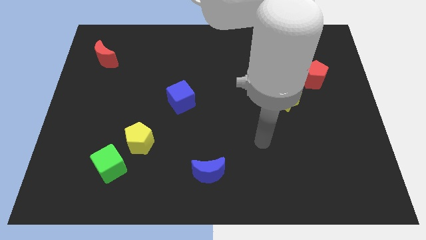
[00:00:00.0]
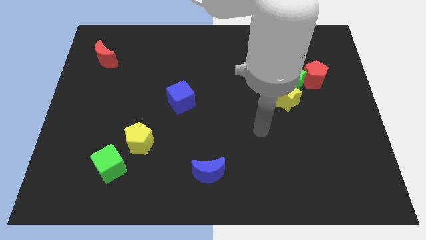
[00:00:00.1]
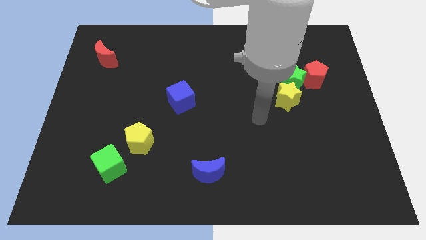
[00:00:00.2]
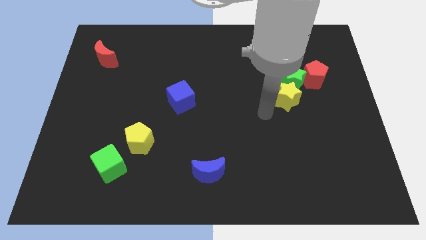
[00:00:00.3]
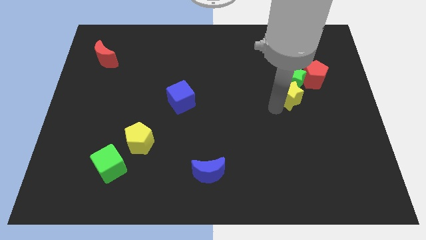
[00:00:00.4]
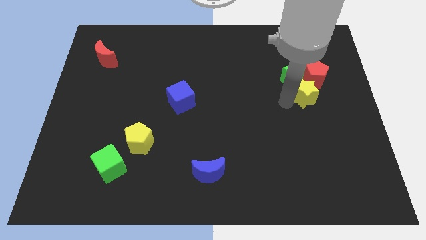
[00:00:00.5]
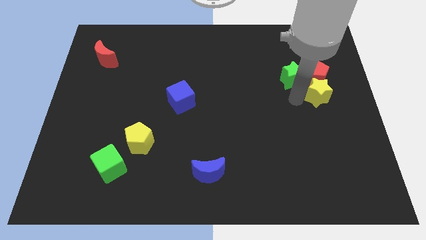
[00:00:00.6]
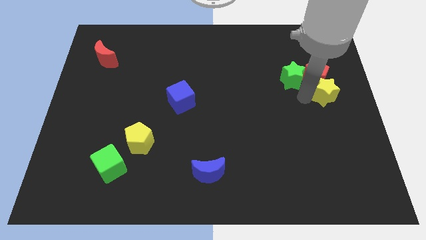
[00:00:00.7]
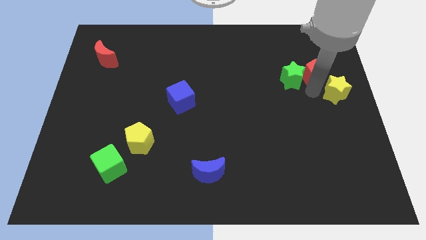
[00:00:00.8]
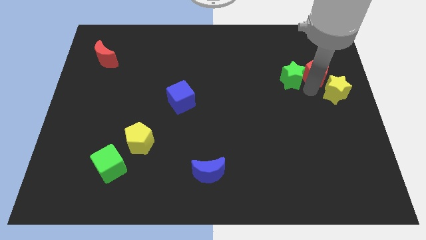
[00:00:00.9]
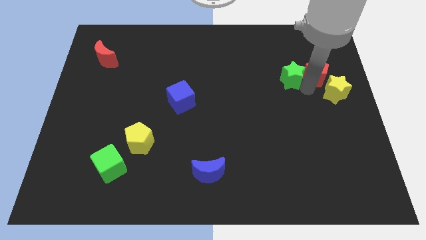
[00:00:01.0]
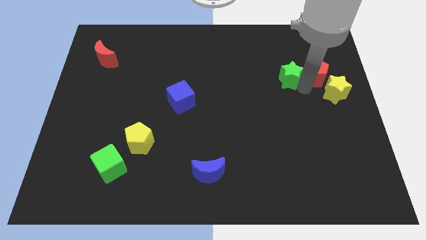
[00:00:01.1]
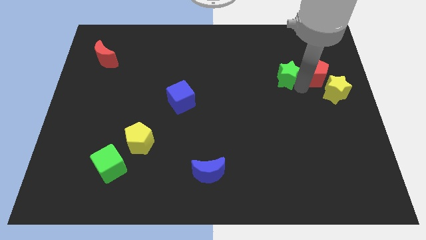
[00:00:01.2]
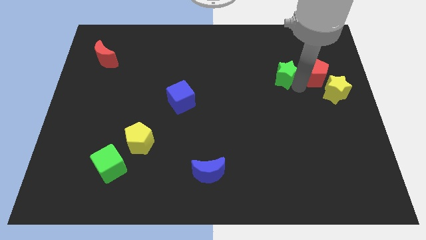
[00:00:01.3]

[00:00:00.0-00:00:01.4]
separate the green star from the yellow star and red pentagon

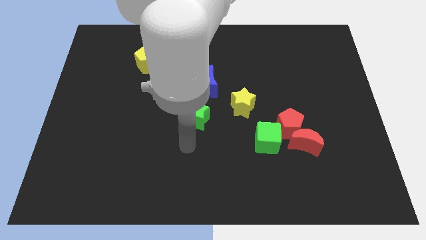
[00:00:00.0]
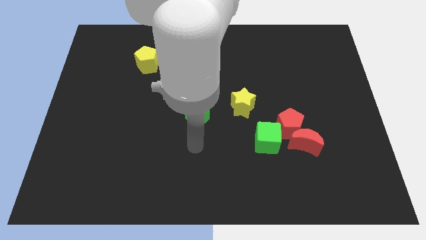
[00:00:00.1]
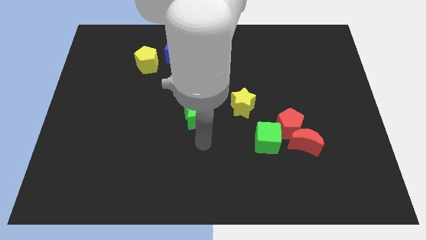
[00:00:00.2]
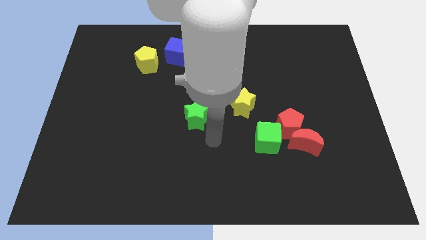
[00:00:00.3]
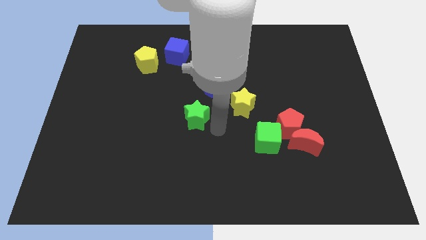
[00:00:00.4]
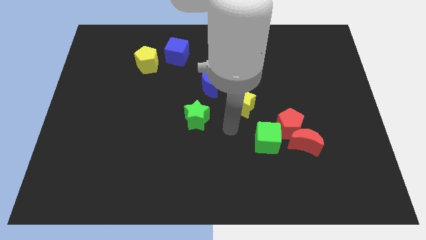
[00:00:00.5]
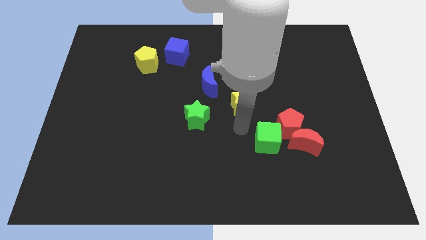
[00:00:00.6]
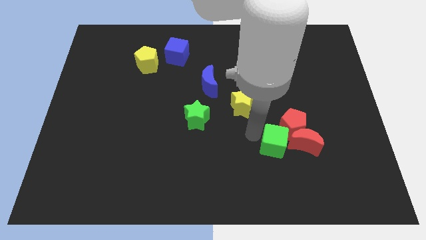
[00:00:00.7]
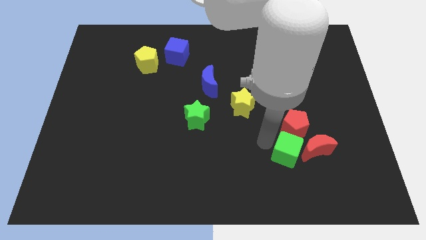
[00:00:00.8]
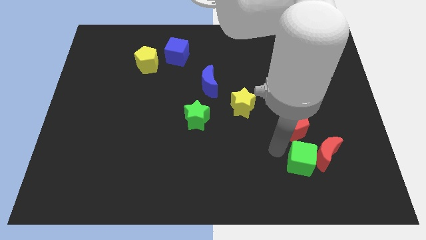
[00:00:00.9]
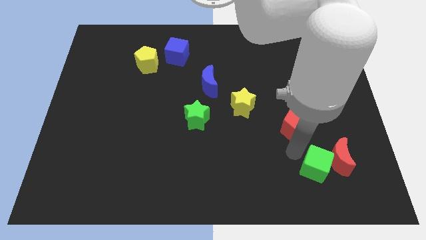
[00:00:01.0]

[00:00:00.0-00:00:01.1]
separate the red pentagon from the red moon and green cube

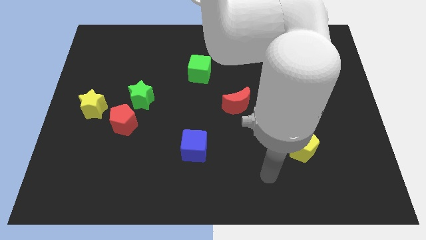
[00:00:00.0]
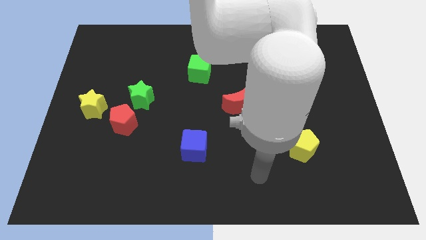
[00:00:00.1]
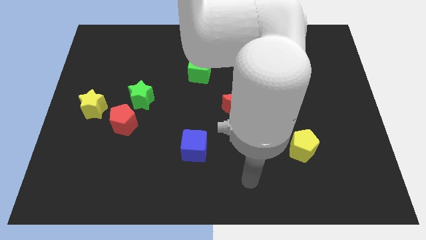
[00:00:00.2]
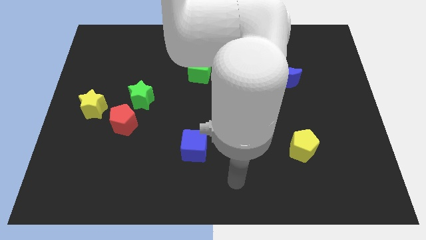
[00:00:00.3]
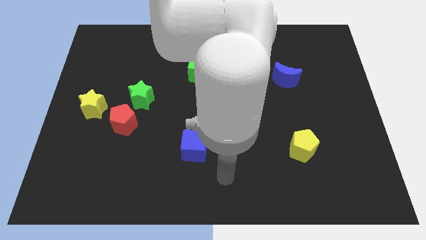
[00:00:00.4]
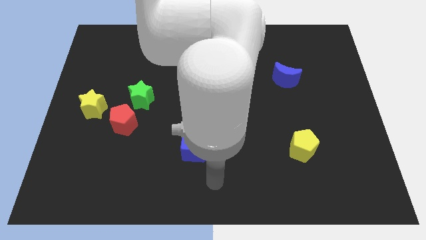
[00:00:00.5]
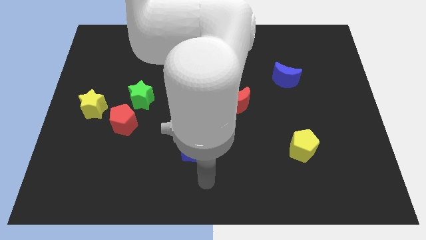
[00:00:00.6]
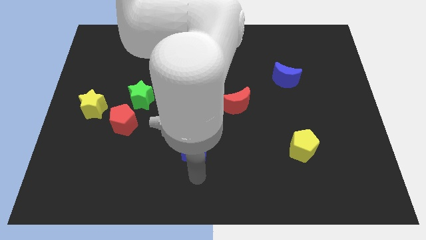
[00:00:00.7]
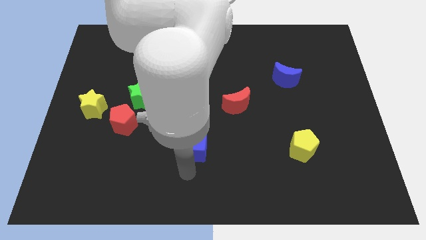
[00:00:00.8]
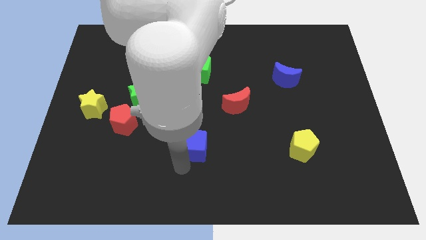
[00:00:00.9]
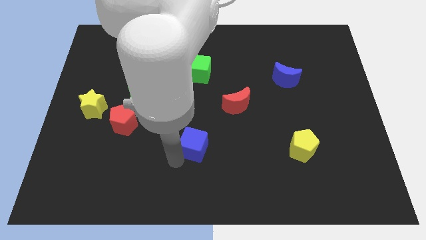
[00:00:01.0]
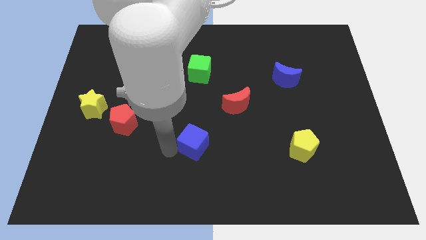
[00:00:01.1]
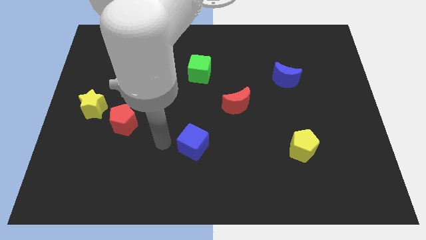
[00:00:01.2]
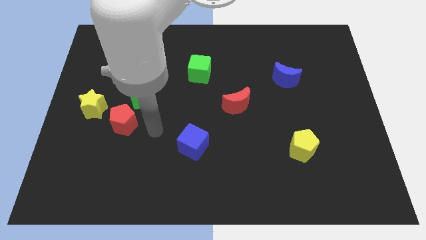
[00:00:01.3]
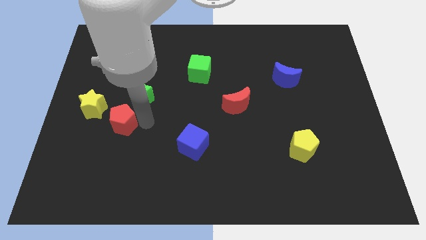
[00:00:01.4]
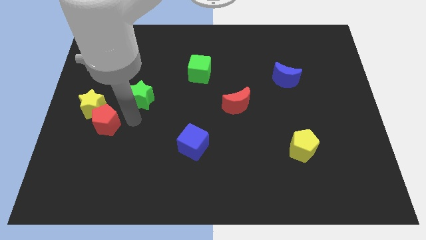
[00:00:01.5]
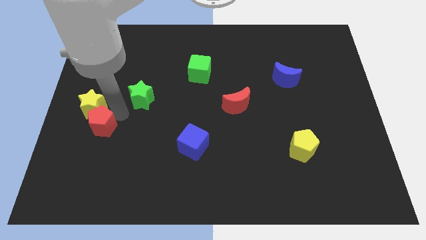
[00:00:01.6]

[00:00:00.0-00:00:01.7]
move the green star away from the red pentagon

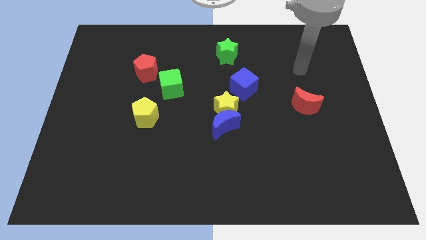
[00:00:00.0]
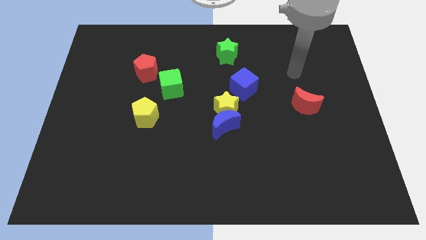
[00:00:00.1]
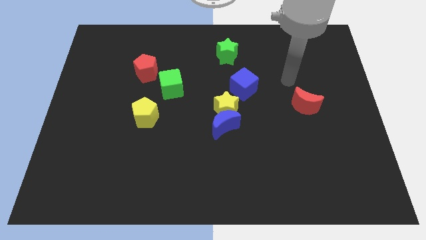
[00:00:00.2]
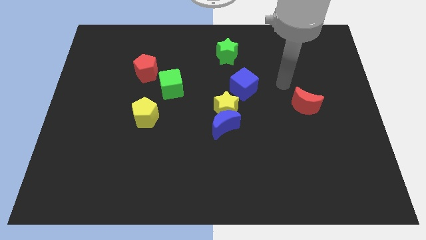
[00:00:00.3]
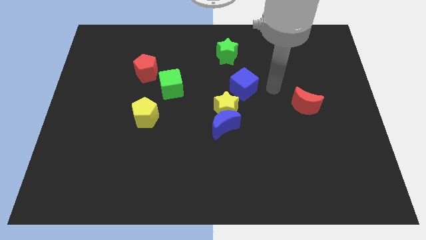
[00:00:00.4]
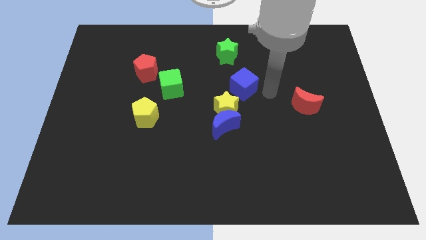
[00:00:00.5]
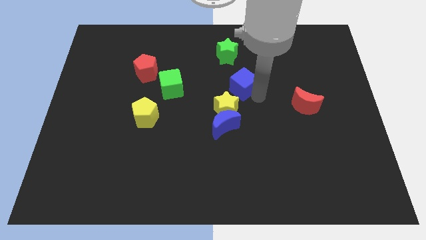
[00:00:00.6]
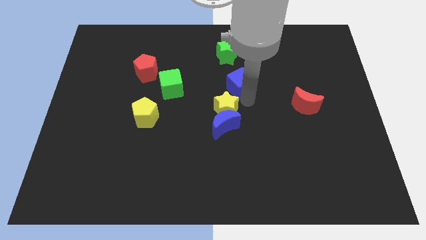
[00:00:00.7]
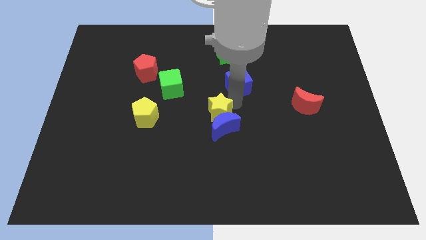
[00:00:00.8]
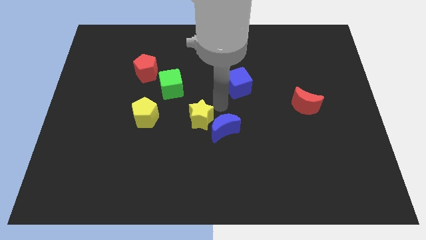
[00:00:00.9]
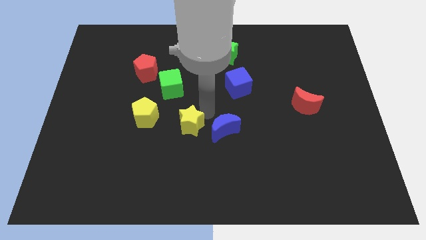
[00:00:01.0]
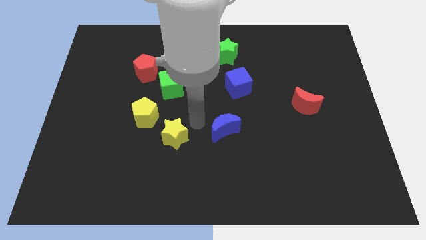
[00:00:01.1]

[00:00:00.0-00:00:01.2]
separate the blue moon from the yellow star

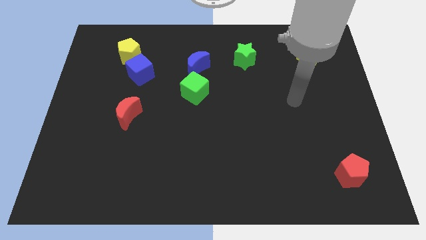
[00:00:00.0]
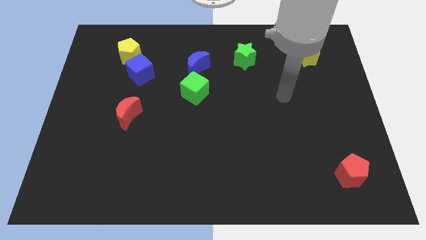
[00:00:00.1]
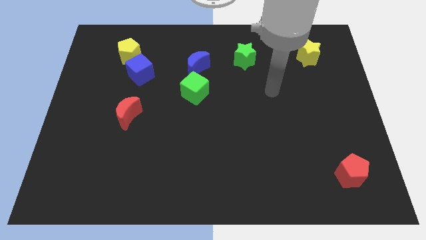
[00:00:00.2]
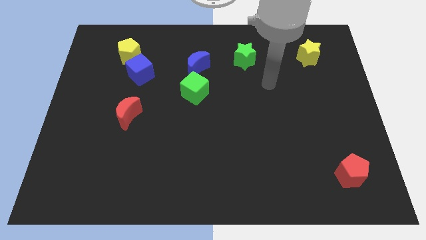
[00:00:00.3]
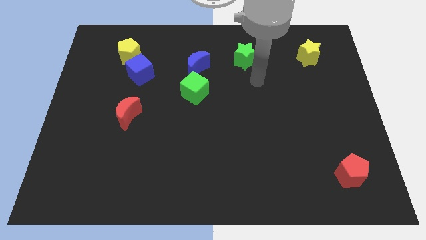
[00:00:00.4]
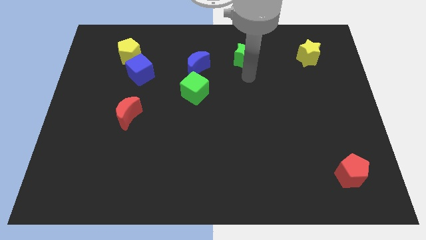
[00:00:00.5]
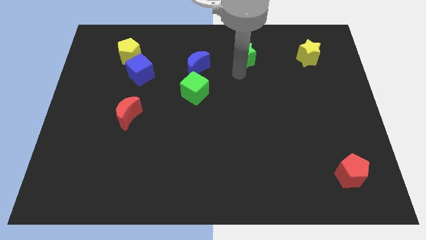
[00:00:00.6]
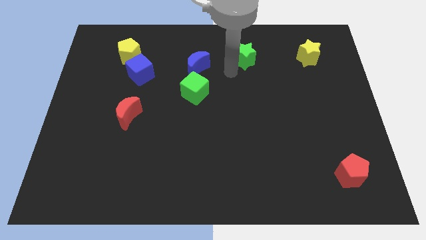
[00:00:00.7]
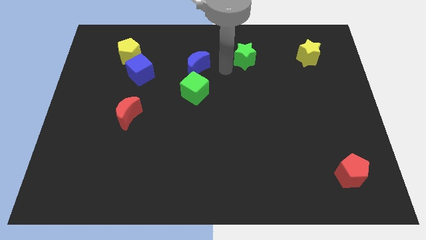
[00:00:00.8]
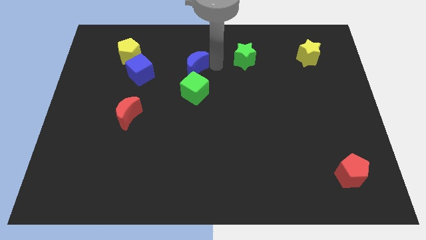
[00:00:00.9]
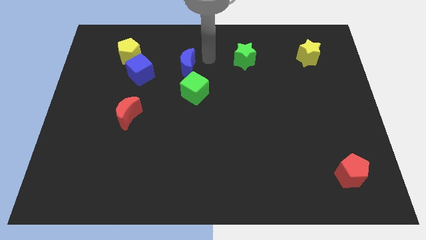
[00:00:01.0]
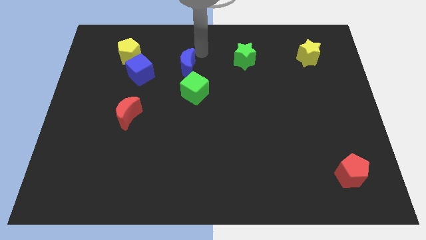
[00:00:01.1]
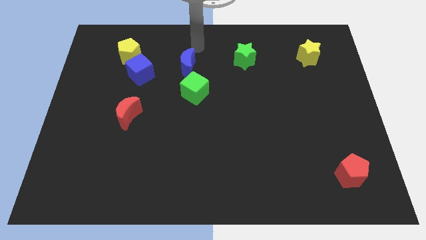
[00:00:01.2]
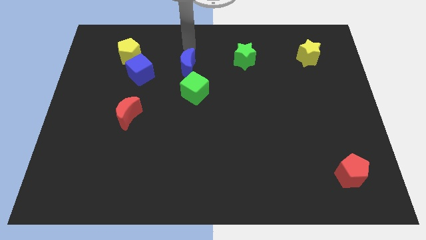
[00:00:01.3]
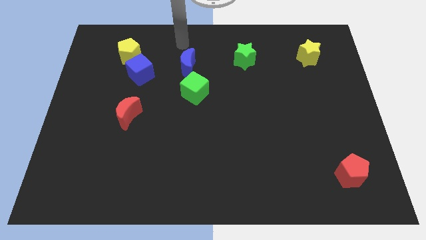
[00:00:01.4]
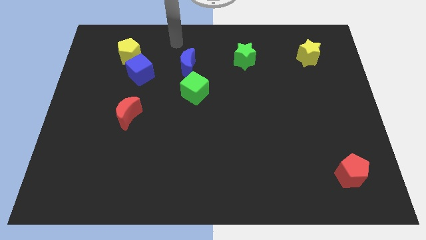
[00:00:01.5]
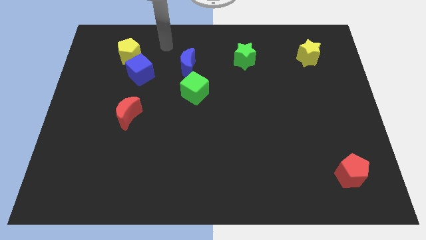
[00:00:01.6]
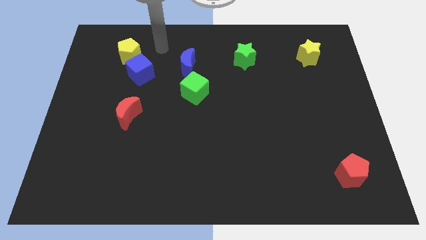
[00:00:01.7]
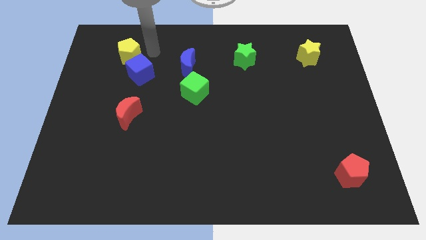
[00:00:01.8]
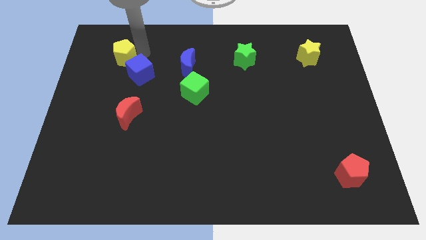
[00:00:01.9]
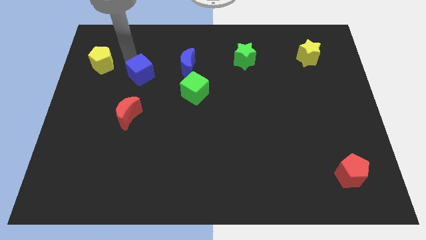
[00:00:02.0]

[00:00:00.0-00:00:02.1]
move the blue cube away from the yellow pentagon

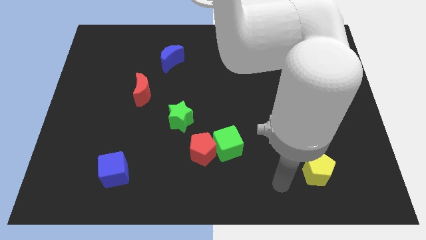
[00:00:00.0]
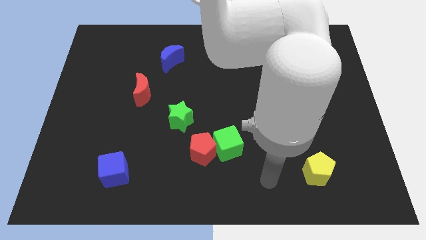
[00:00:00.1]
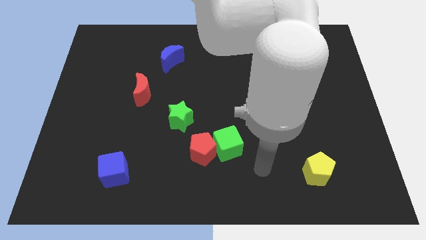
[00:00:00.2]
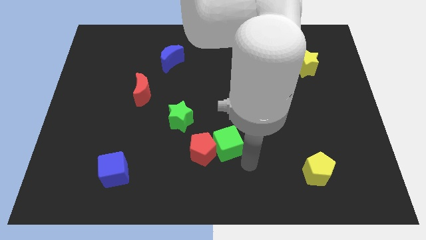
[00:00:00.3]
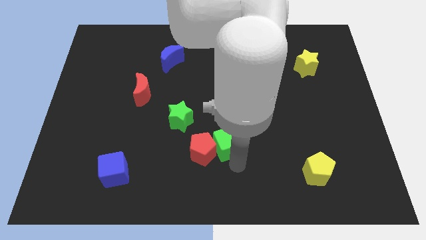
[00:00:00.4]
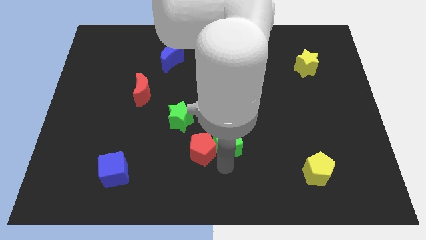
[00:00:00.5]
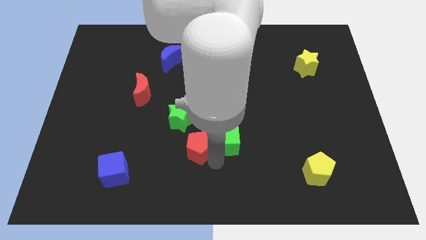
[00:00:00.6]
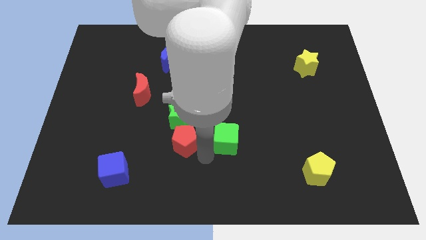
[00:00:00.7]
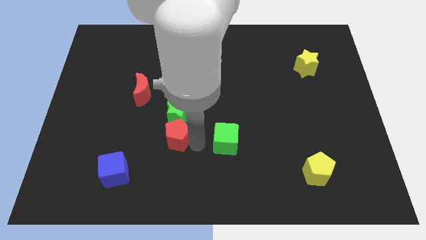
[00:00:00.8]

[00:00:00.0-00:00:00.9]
pull the green cube apart from the red pentagon

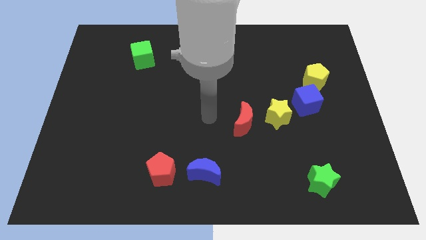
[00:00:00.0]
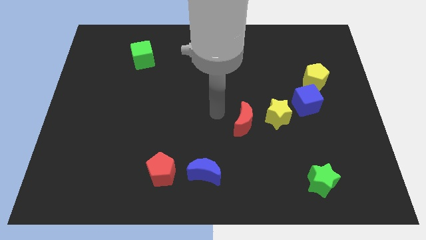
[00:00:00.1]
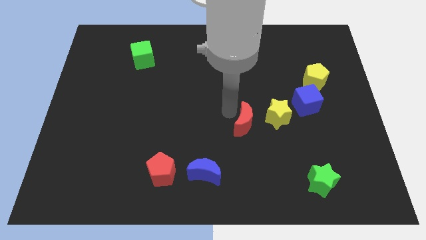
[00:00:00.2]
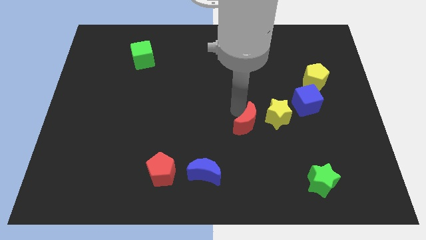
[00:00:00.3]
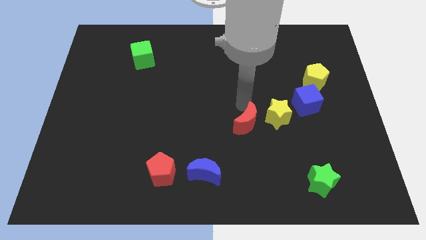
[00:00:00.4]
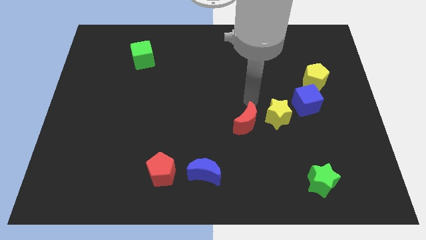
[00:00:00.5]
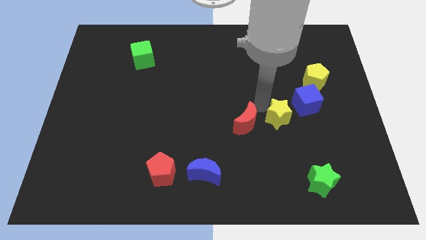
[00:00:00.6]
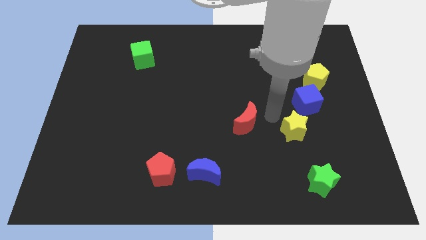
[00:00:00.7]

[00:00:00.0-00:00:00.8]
move the red moon away from the yellow star
